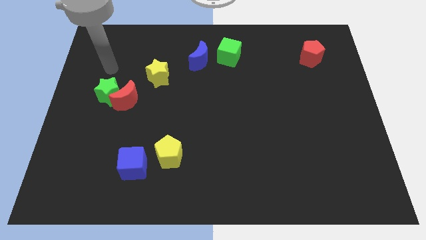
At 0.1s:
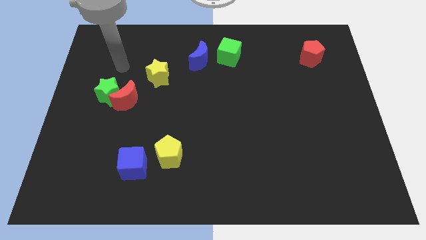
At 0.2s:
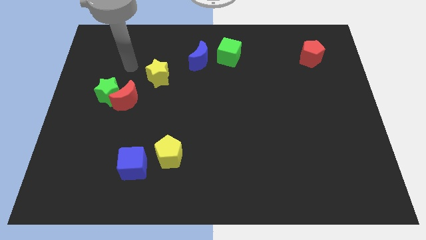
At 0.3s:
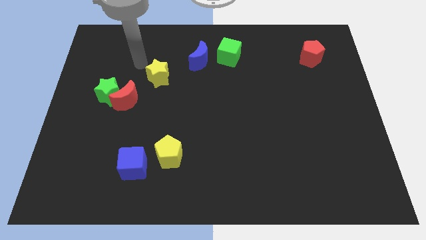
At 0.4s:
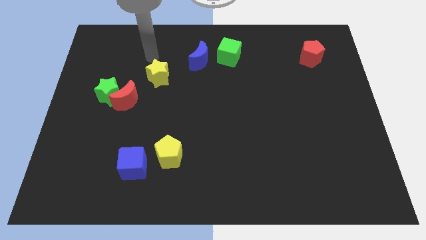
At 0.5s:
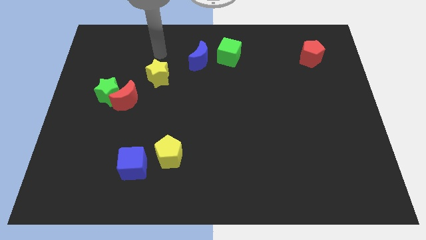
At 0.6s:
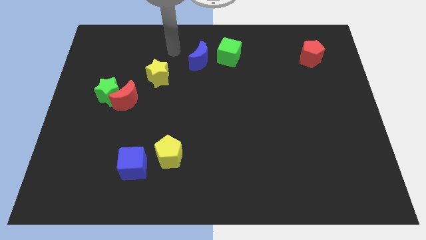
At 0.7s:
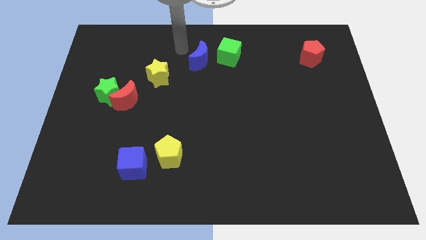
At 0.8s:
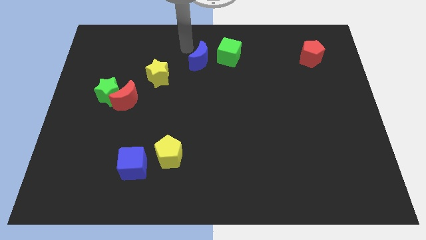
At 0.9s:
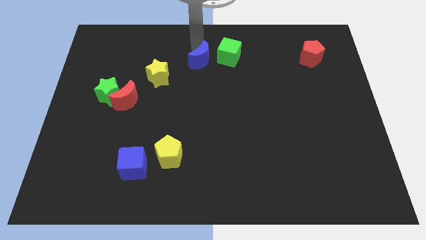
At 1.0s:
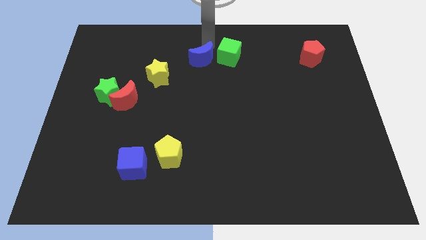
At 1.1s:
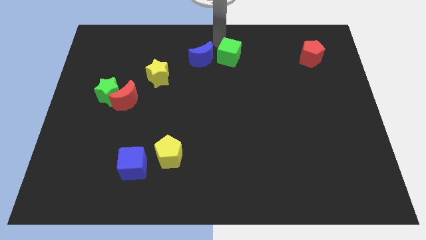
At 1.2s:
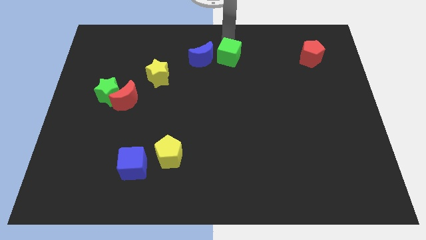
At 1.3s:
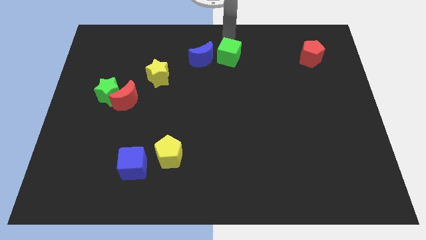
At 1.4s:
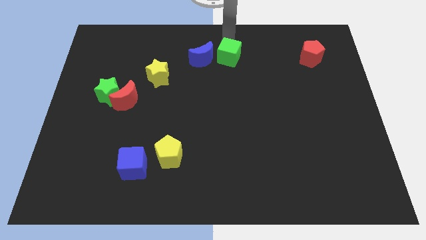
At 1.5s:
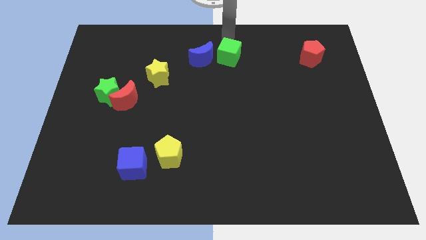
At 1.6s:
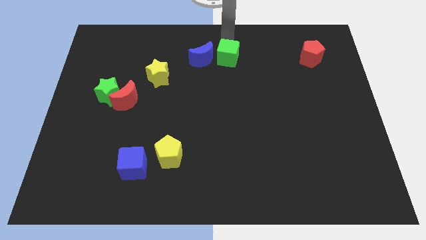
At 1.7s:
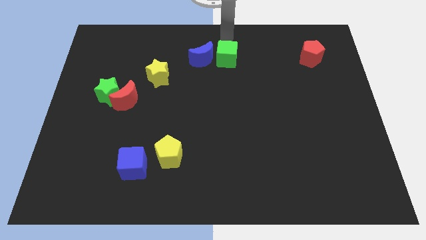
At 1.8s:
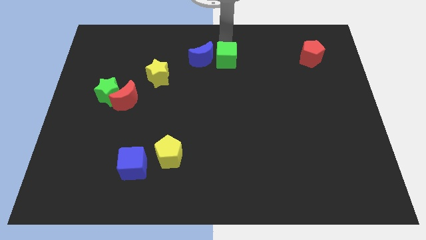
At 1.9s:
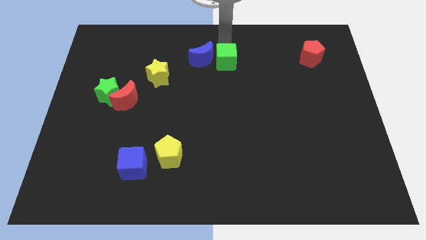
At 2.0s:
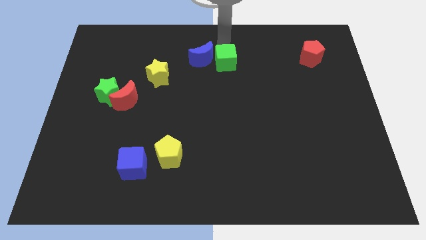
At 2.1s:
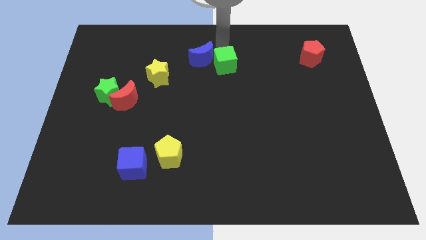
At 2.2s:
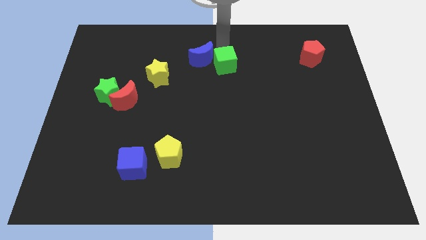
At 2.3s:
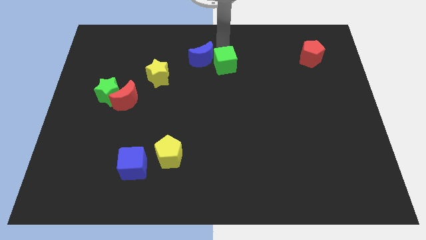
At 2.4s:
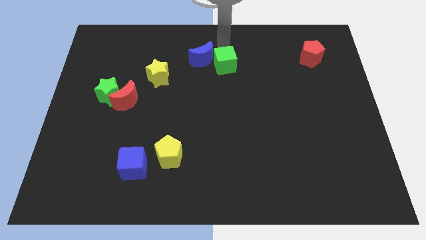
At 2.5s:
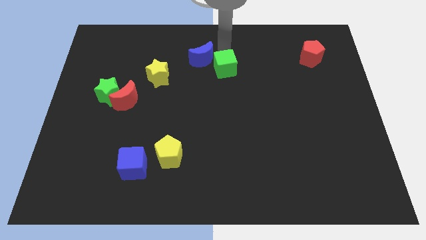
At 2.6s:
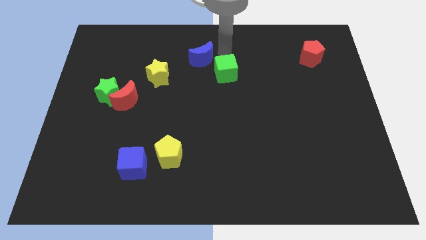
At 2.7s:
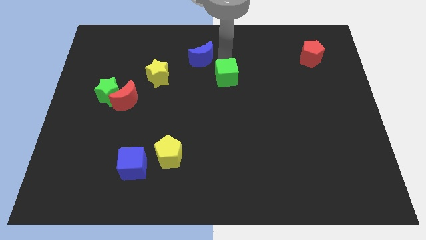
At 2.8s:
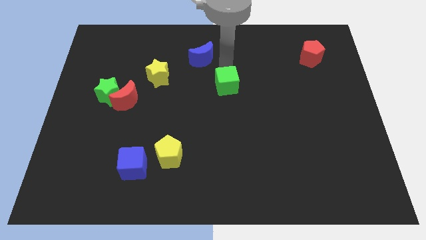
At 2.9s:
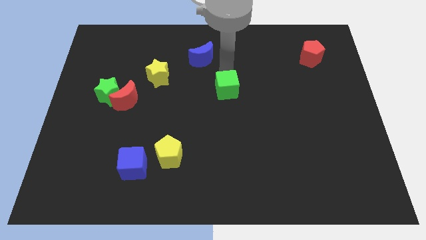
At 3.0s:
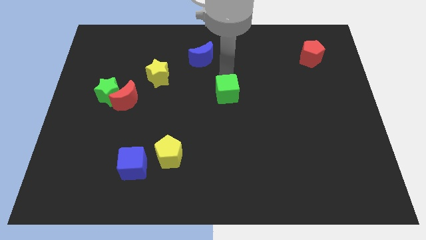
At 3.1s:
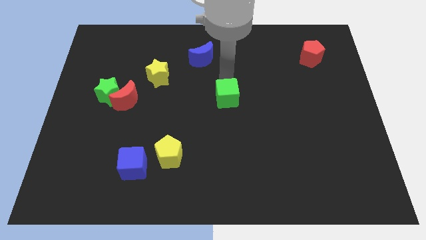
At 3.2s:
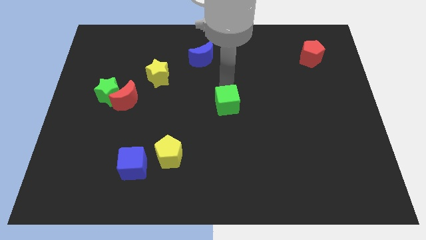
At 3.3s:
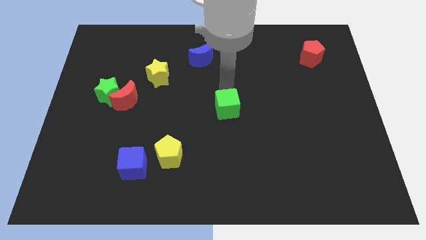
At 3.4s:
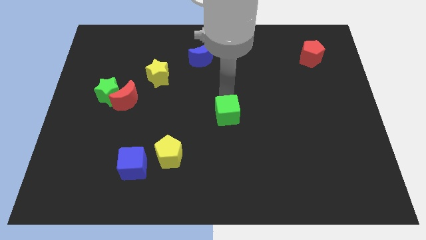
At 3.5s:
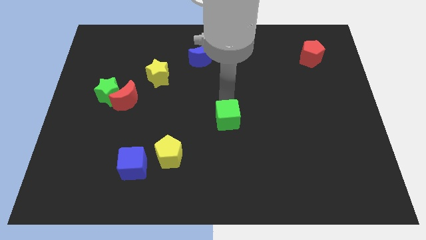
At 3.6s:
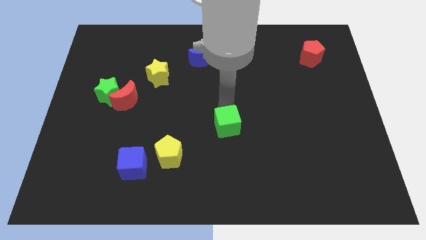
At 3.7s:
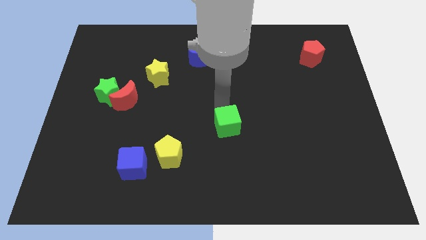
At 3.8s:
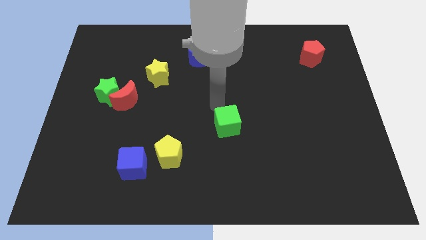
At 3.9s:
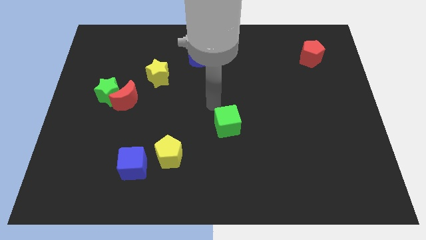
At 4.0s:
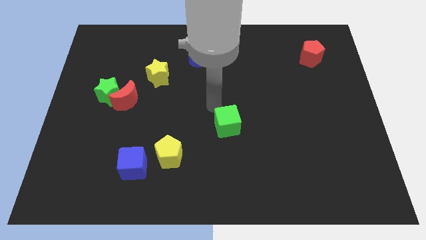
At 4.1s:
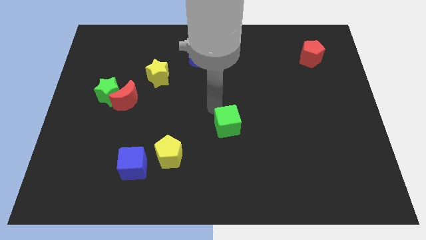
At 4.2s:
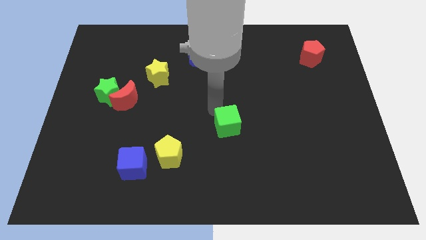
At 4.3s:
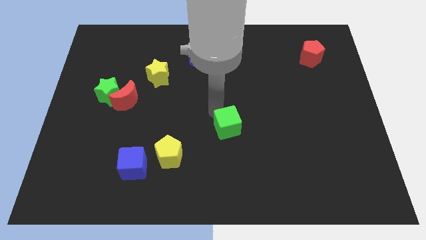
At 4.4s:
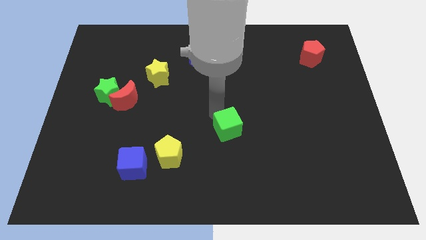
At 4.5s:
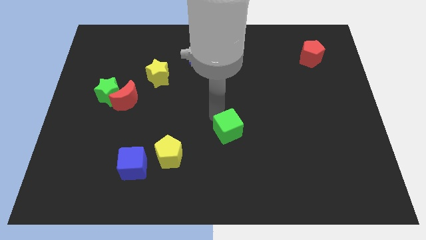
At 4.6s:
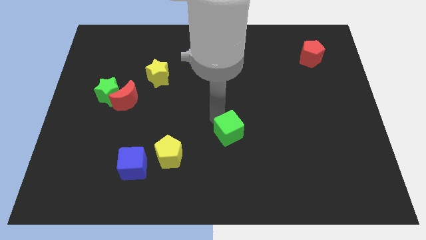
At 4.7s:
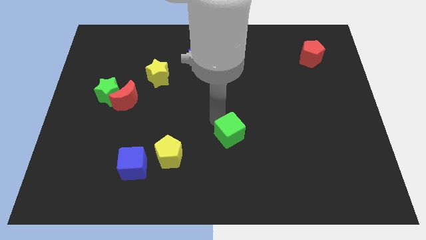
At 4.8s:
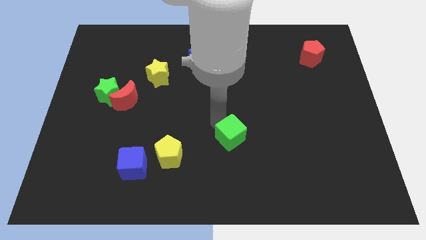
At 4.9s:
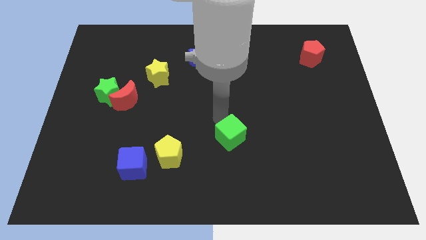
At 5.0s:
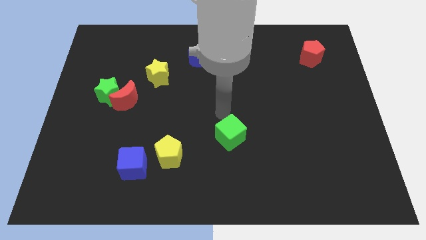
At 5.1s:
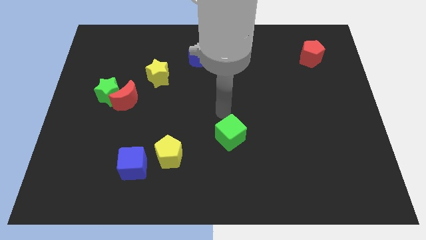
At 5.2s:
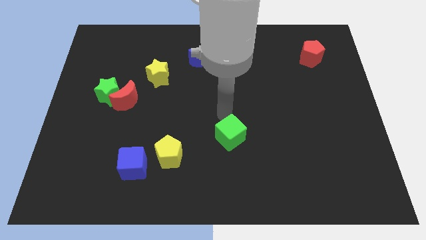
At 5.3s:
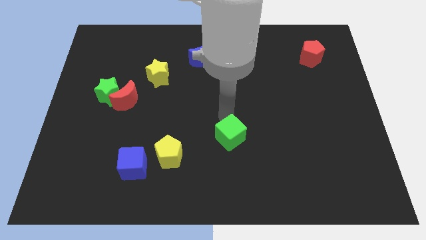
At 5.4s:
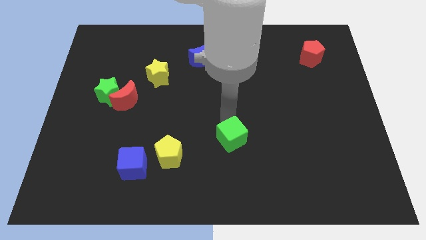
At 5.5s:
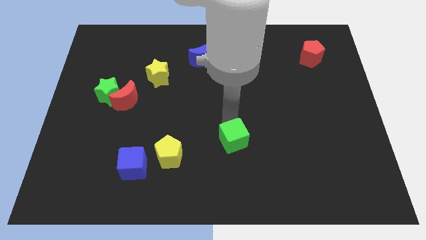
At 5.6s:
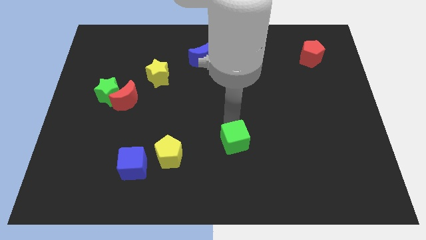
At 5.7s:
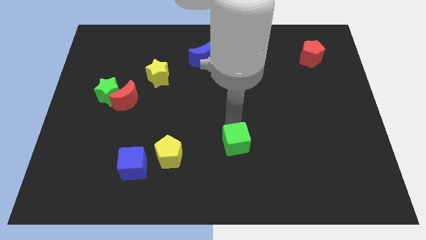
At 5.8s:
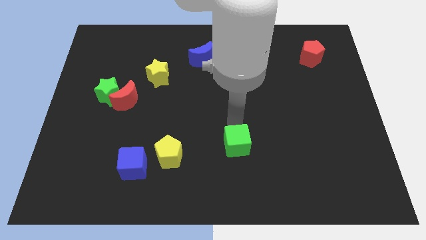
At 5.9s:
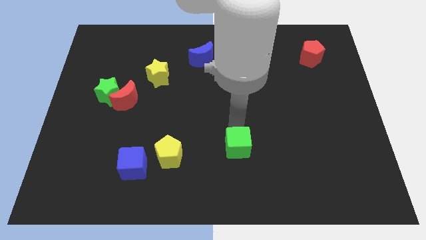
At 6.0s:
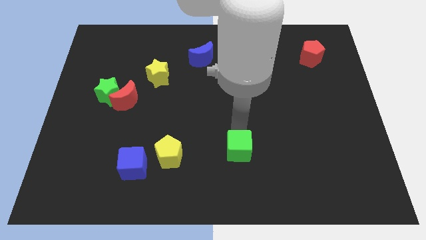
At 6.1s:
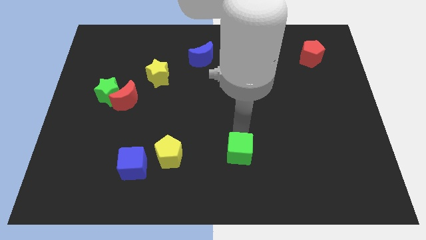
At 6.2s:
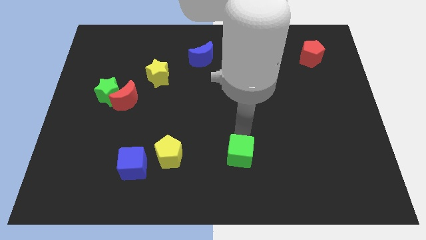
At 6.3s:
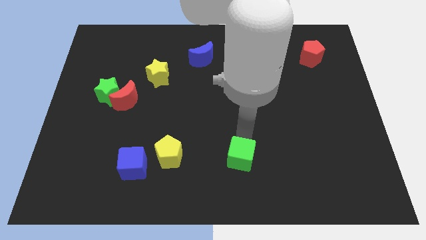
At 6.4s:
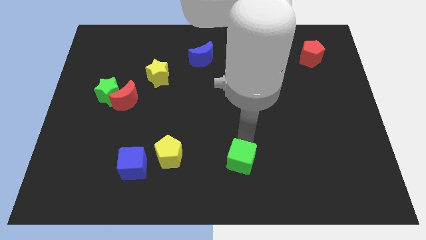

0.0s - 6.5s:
slide the green cube to the bottom

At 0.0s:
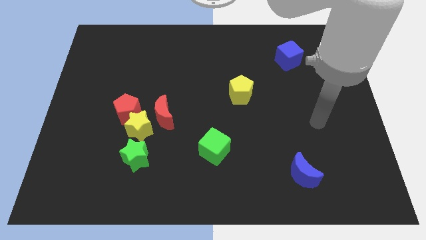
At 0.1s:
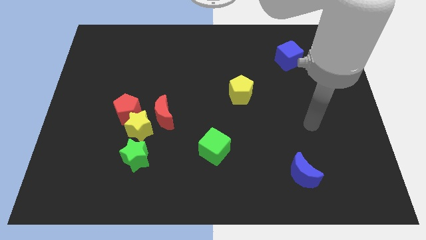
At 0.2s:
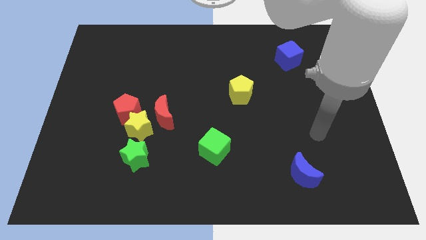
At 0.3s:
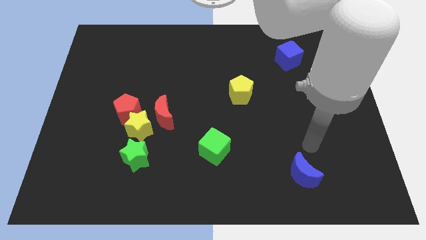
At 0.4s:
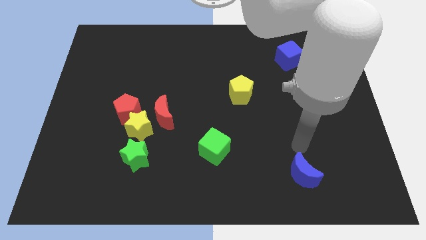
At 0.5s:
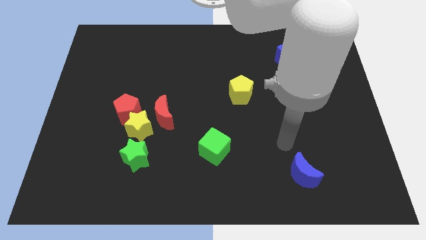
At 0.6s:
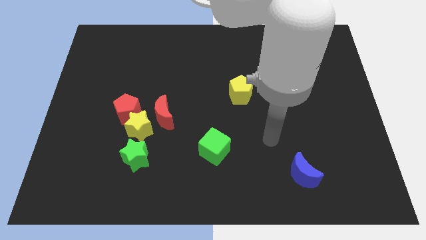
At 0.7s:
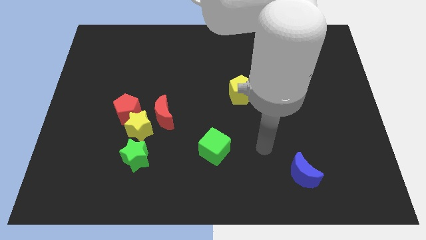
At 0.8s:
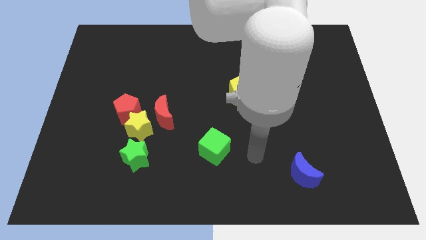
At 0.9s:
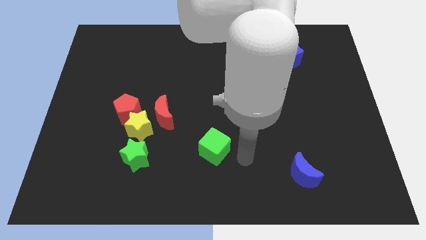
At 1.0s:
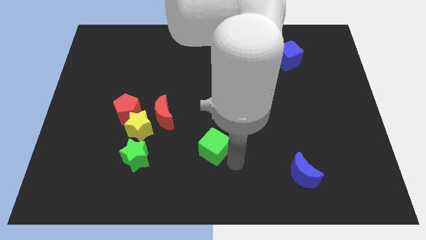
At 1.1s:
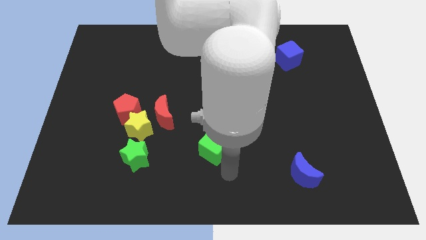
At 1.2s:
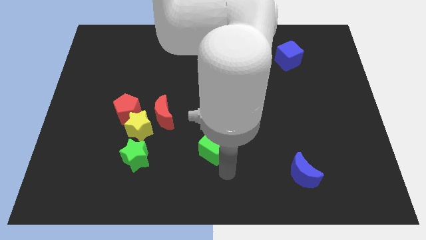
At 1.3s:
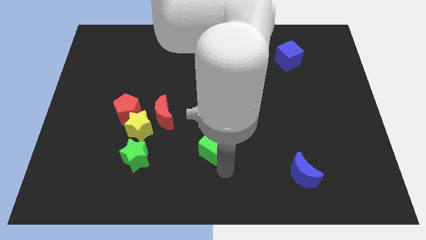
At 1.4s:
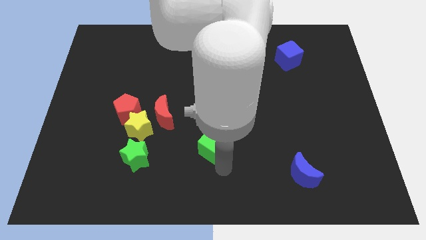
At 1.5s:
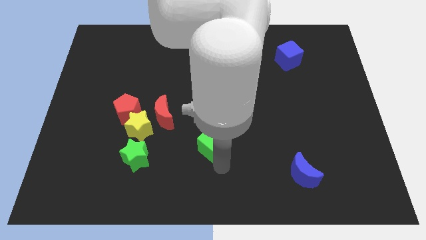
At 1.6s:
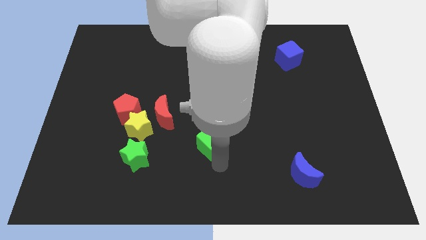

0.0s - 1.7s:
put the green cube to the center
